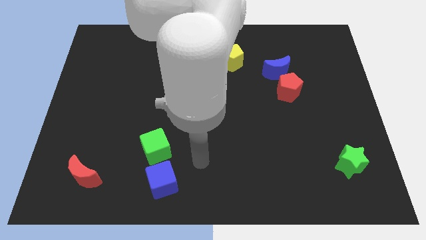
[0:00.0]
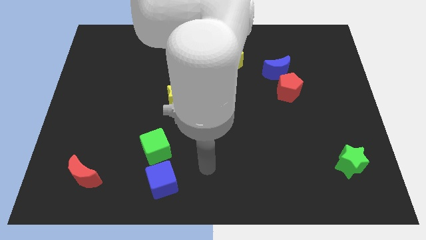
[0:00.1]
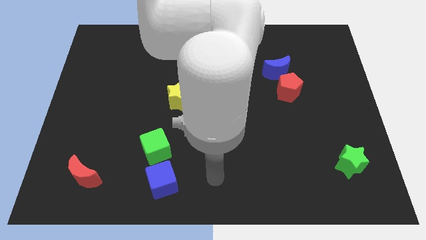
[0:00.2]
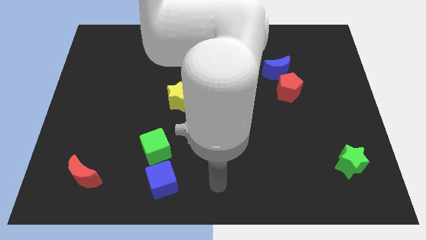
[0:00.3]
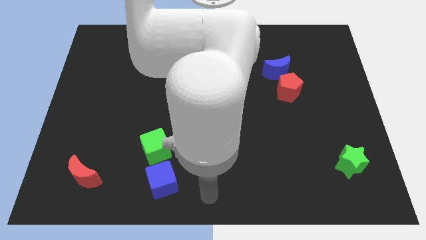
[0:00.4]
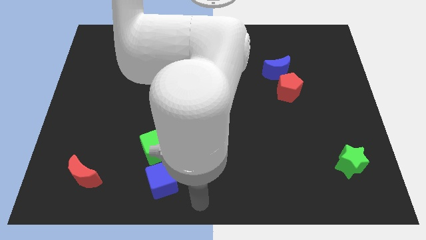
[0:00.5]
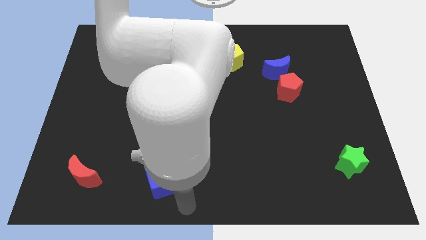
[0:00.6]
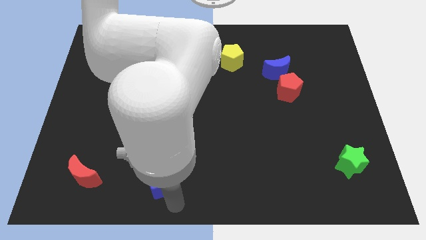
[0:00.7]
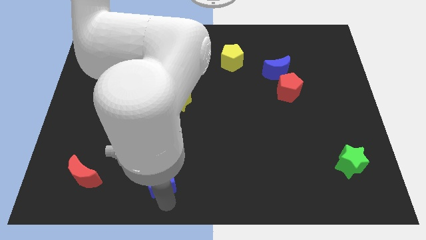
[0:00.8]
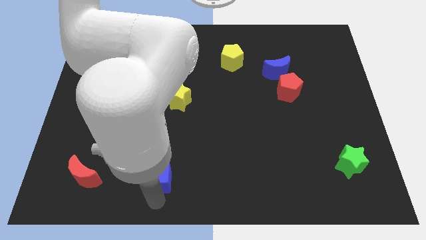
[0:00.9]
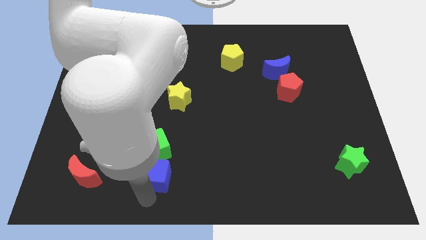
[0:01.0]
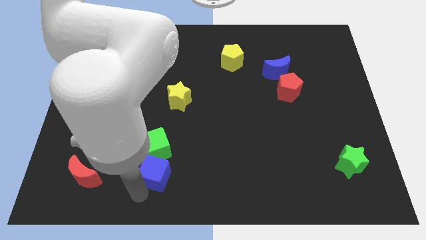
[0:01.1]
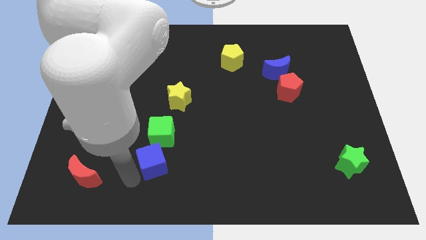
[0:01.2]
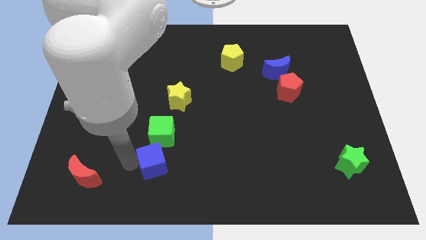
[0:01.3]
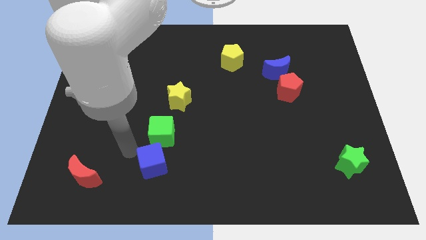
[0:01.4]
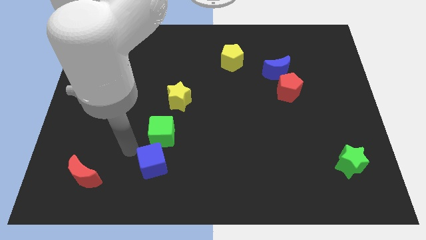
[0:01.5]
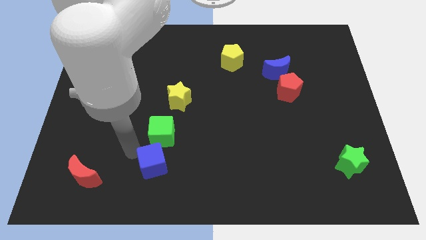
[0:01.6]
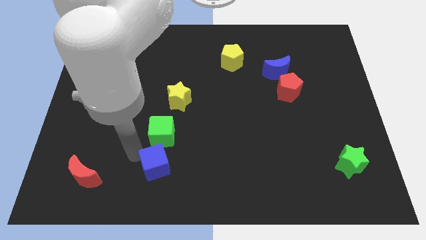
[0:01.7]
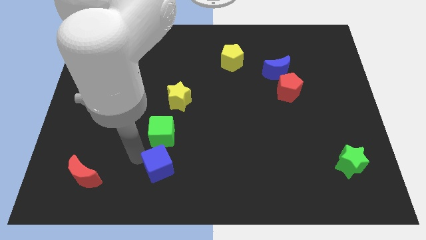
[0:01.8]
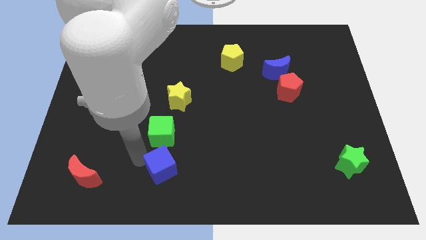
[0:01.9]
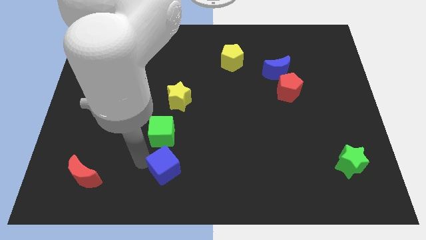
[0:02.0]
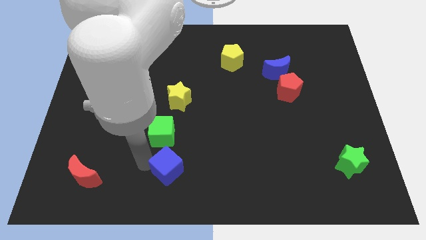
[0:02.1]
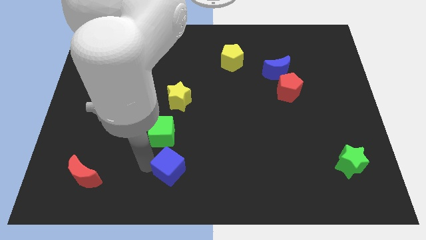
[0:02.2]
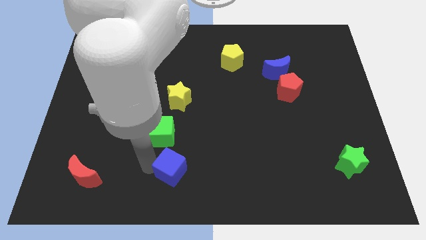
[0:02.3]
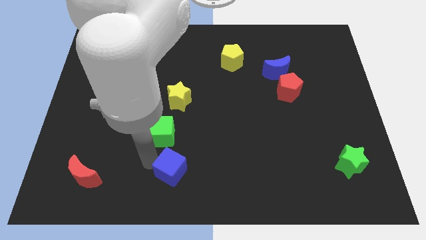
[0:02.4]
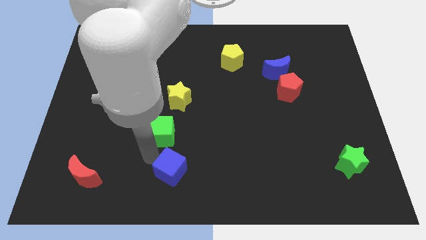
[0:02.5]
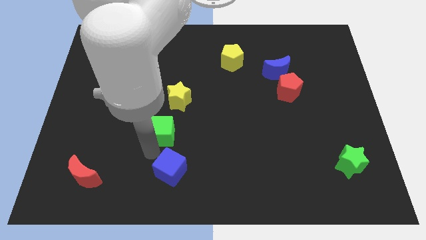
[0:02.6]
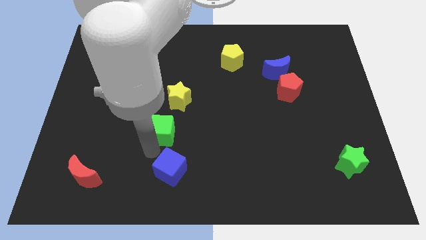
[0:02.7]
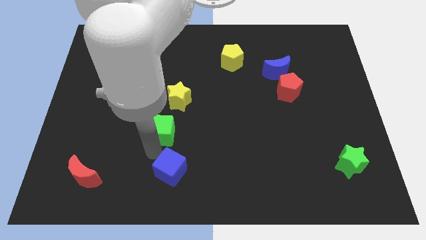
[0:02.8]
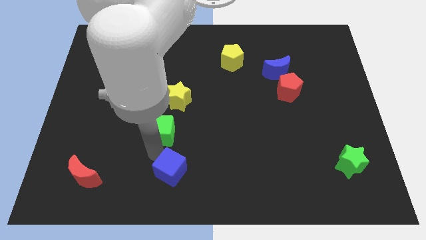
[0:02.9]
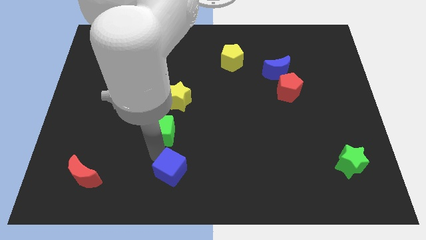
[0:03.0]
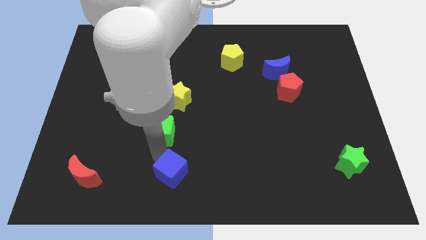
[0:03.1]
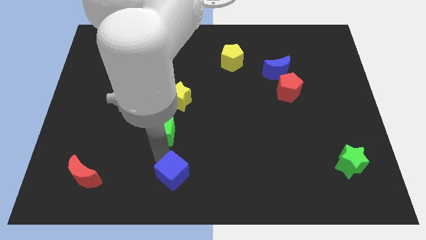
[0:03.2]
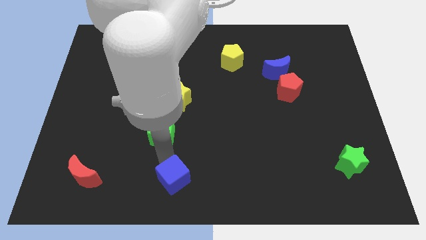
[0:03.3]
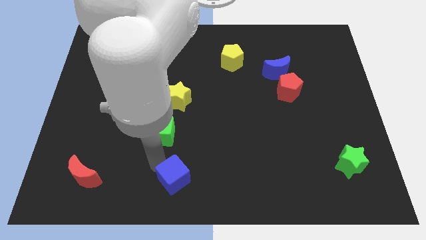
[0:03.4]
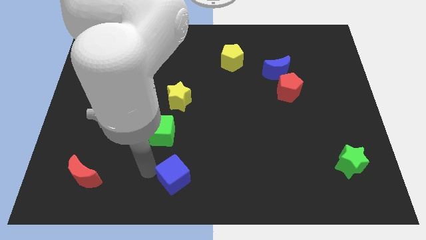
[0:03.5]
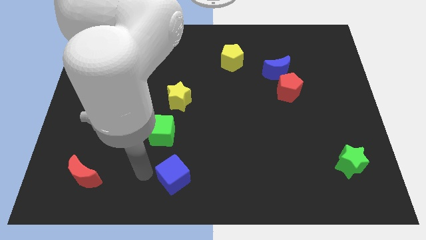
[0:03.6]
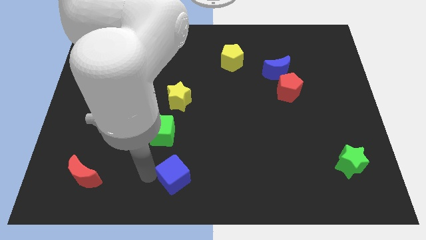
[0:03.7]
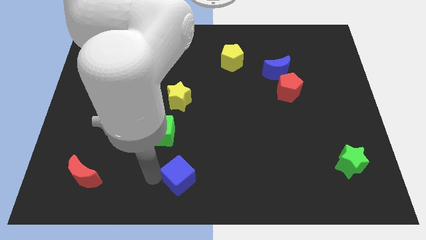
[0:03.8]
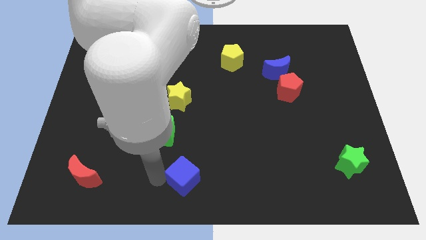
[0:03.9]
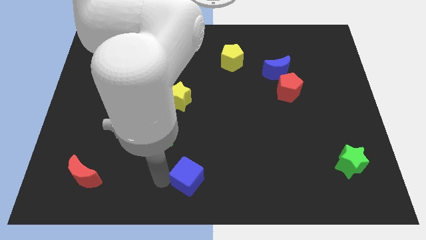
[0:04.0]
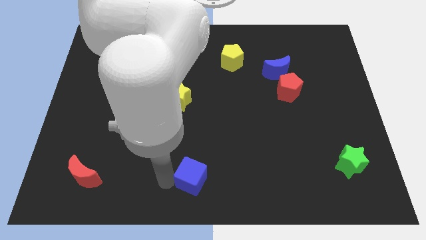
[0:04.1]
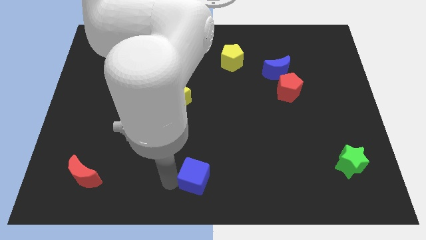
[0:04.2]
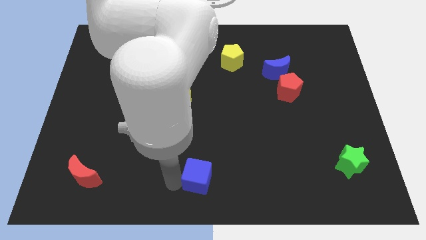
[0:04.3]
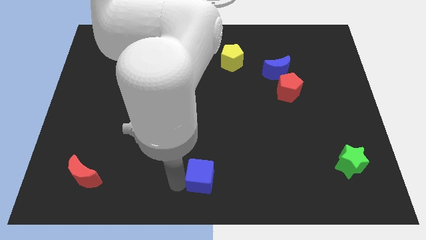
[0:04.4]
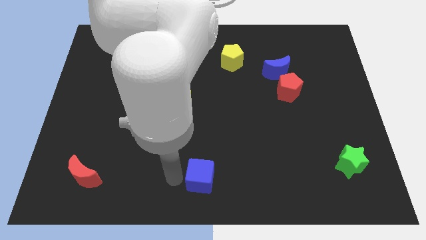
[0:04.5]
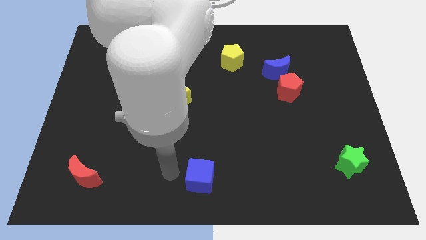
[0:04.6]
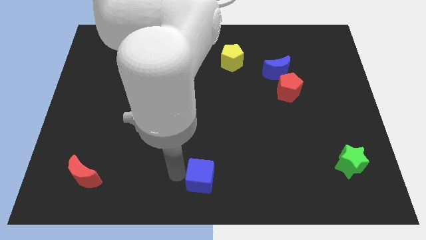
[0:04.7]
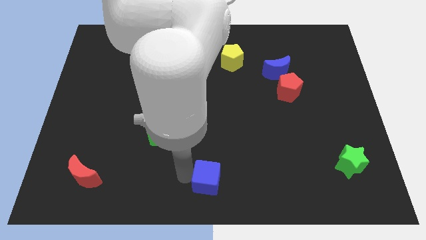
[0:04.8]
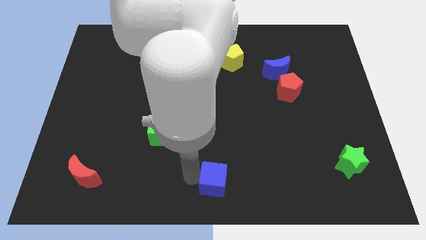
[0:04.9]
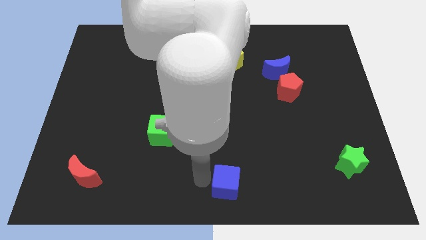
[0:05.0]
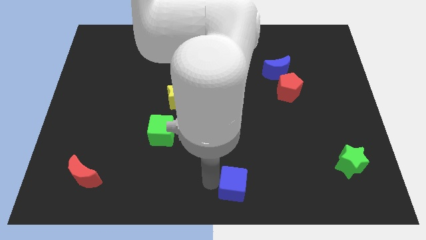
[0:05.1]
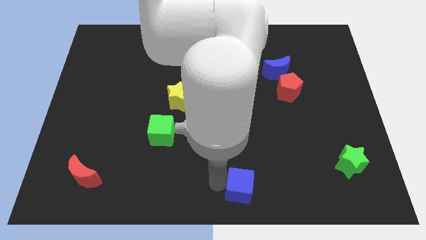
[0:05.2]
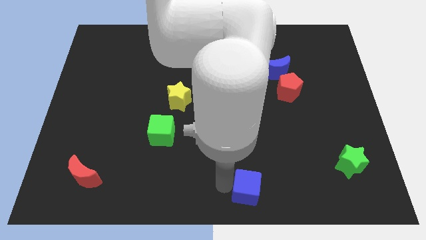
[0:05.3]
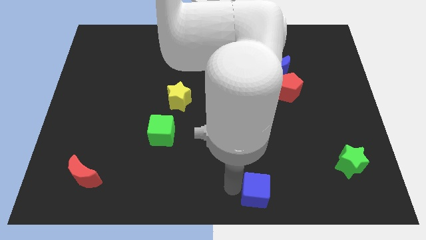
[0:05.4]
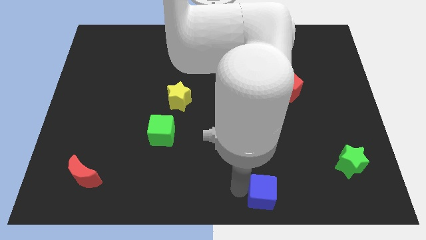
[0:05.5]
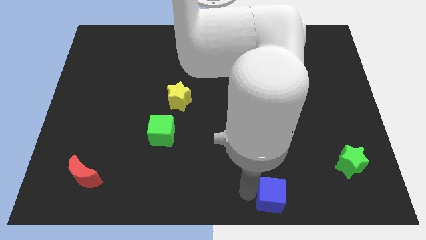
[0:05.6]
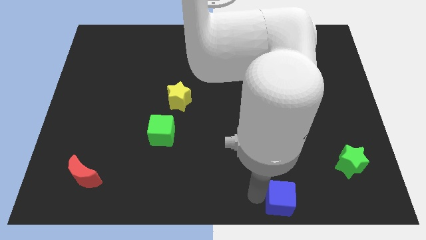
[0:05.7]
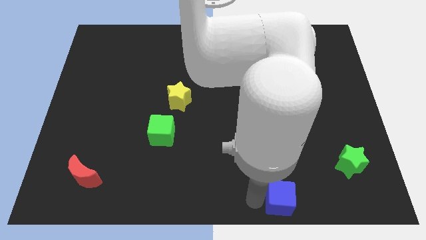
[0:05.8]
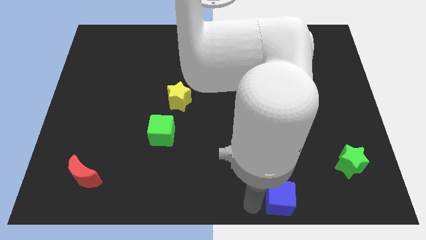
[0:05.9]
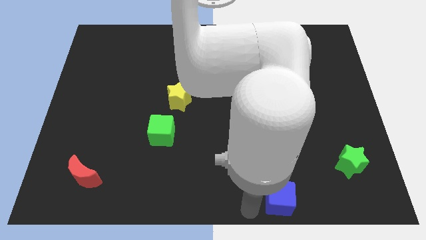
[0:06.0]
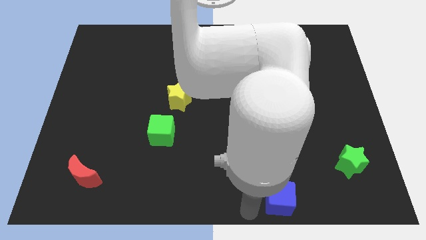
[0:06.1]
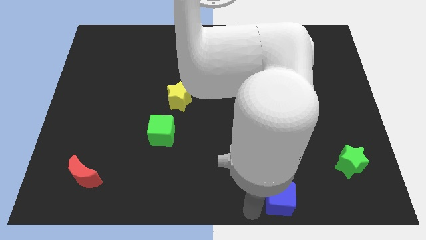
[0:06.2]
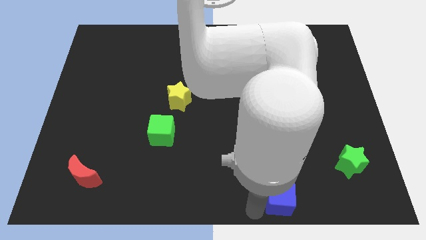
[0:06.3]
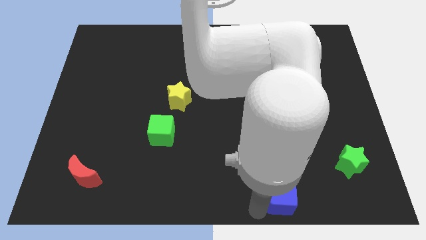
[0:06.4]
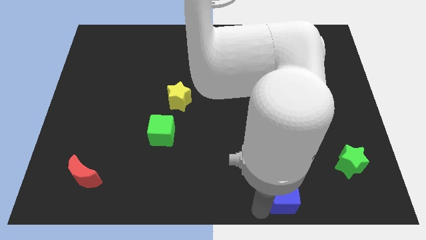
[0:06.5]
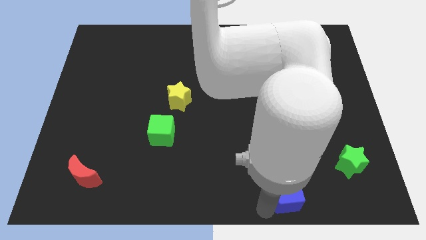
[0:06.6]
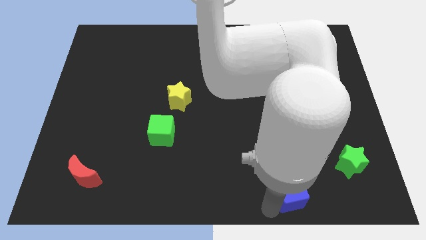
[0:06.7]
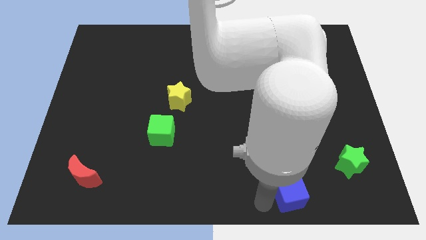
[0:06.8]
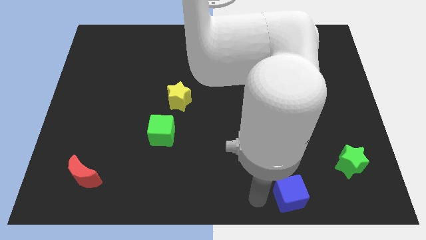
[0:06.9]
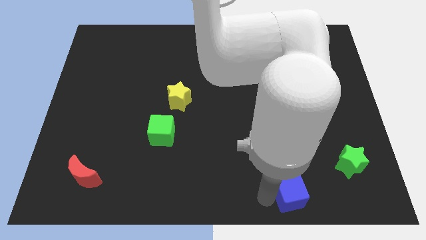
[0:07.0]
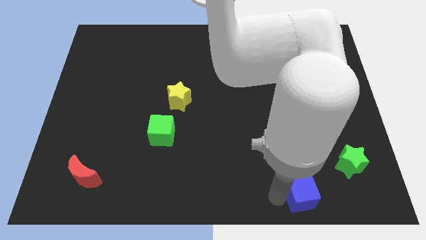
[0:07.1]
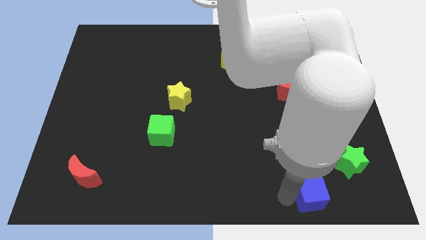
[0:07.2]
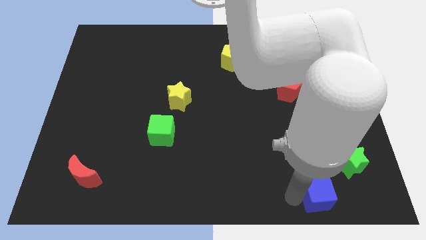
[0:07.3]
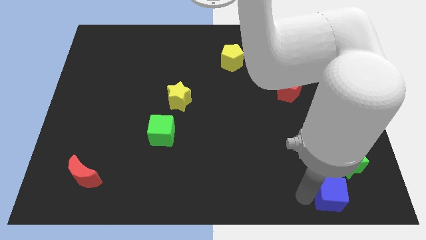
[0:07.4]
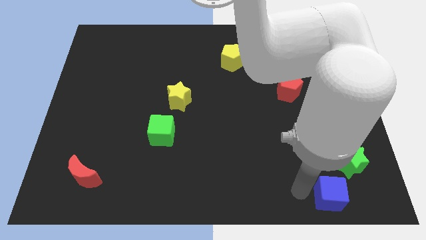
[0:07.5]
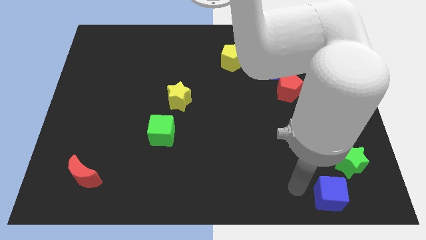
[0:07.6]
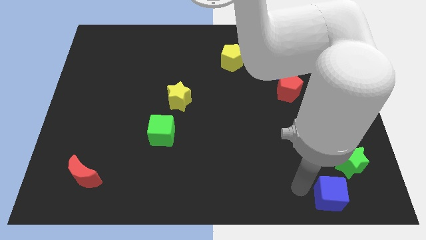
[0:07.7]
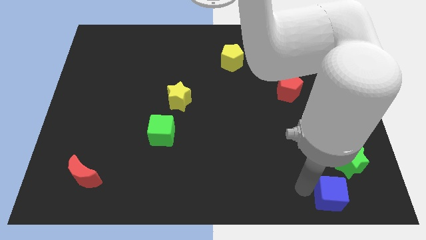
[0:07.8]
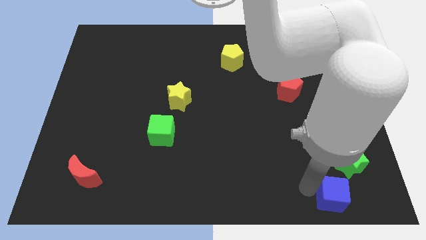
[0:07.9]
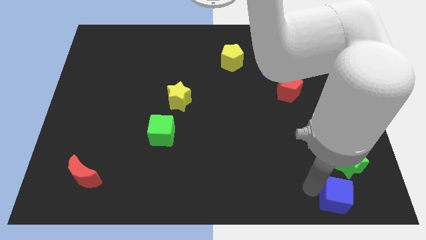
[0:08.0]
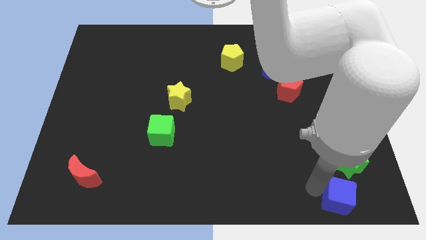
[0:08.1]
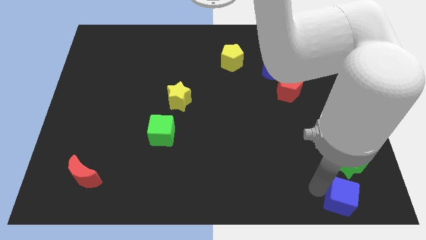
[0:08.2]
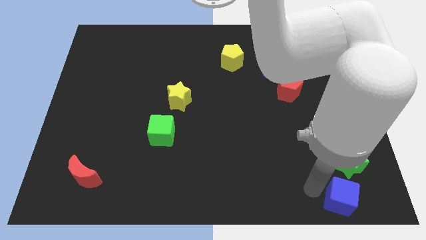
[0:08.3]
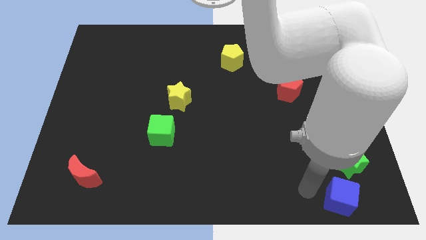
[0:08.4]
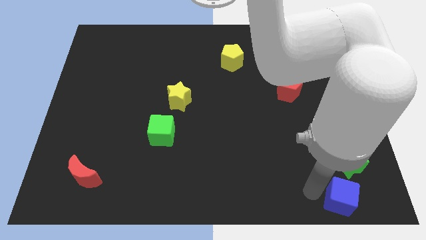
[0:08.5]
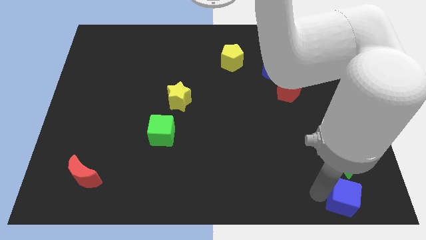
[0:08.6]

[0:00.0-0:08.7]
move the blue cube to the lower right corner
